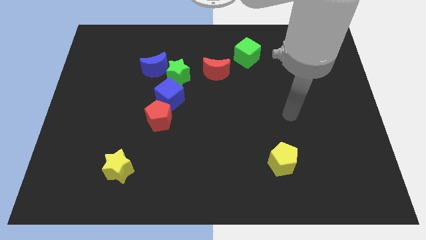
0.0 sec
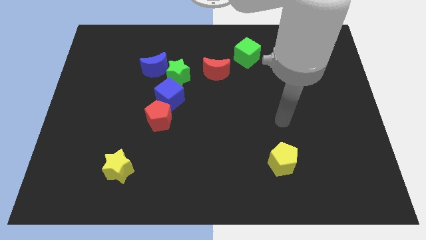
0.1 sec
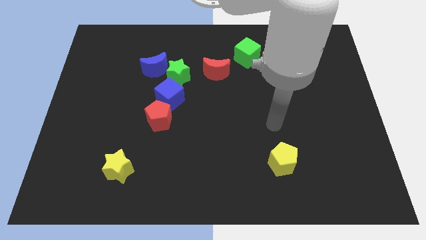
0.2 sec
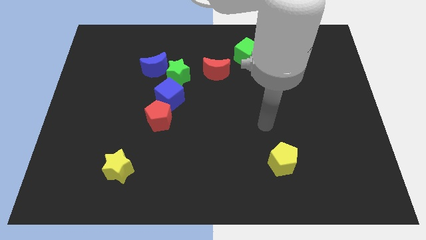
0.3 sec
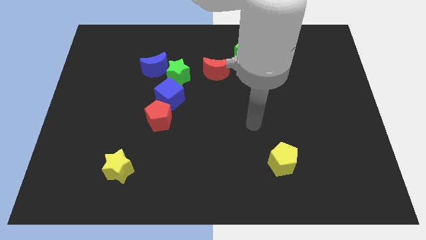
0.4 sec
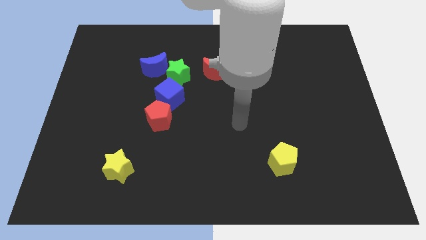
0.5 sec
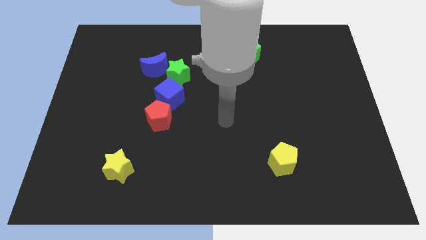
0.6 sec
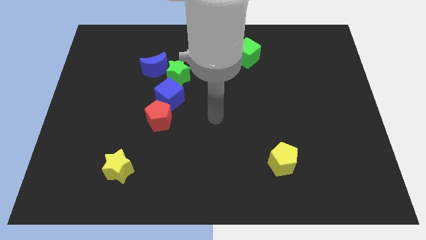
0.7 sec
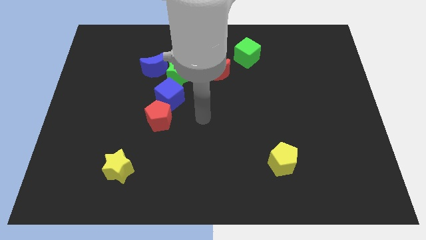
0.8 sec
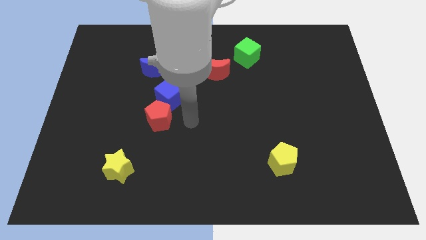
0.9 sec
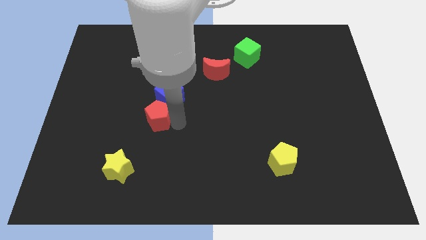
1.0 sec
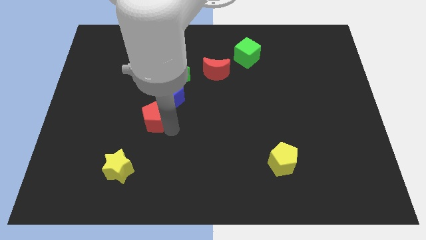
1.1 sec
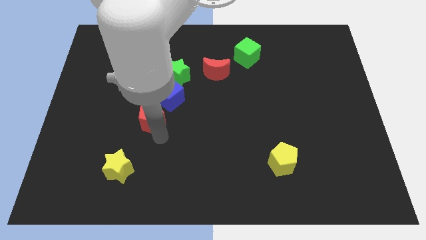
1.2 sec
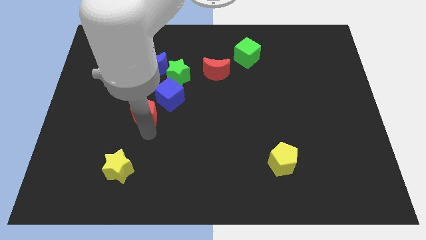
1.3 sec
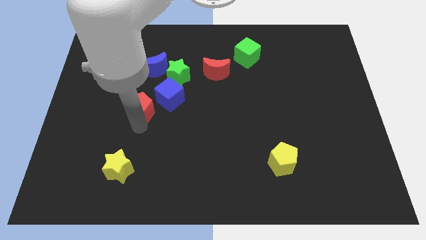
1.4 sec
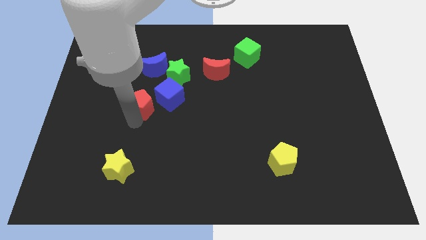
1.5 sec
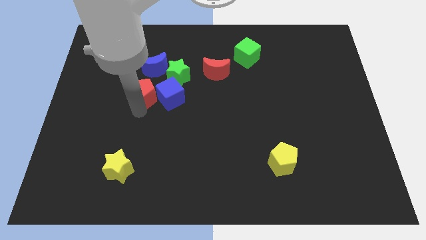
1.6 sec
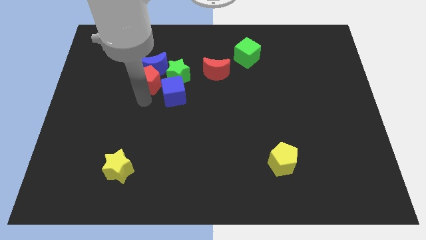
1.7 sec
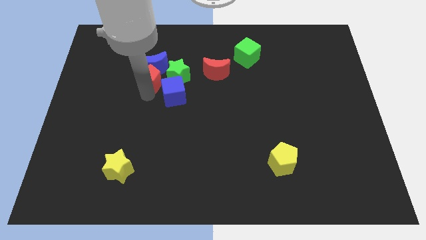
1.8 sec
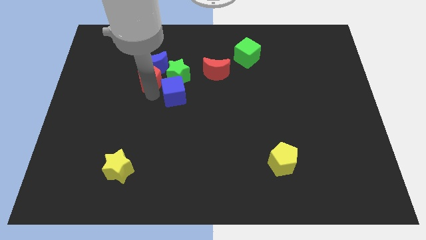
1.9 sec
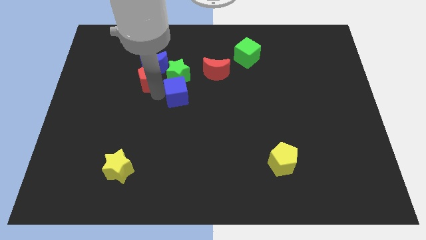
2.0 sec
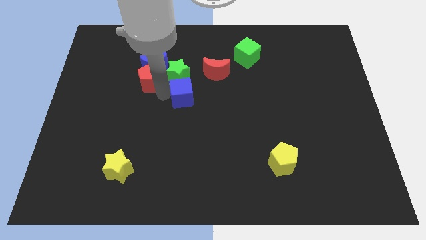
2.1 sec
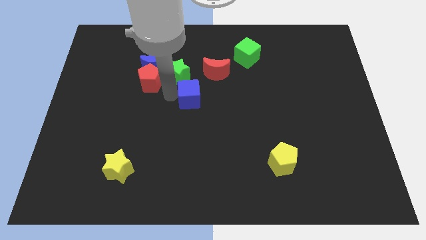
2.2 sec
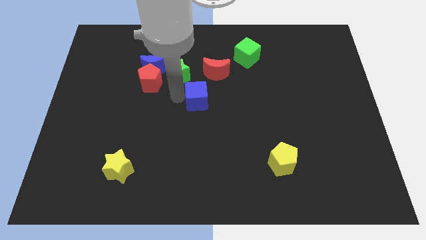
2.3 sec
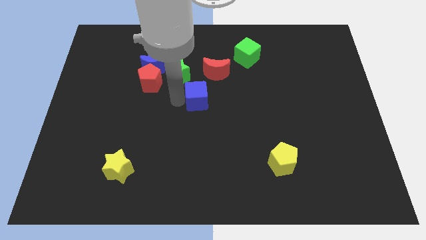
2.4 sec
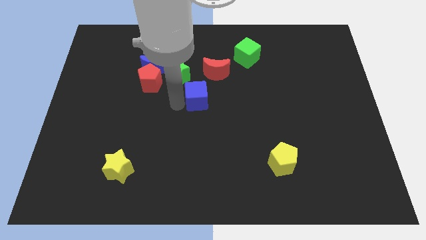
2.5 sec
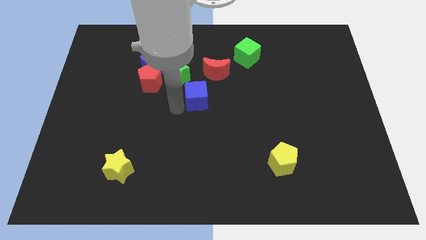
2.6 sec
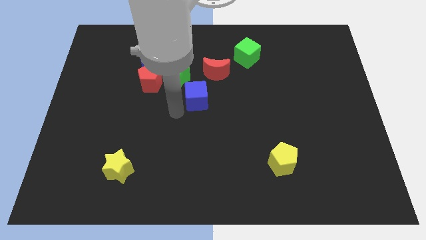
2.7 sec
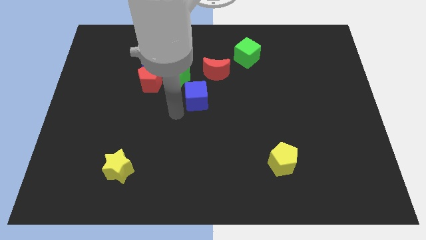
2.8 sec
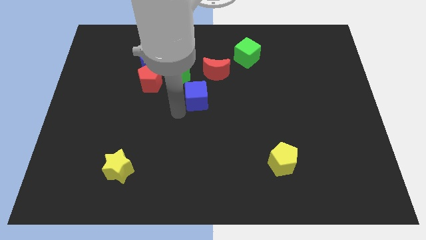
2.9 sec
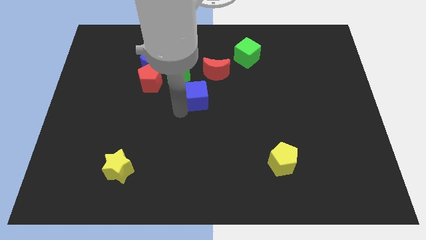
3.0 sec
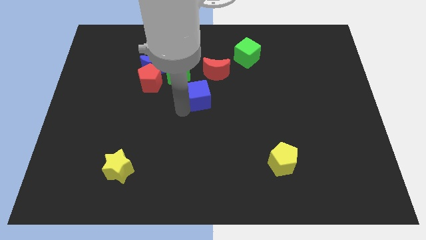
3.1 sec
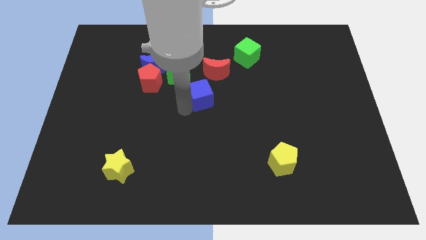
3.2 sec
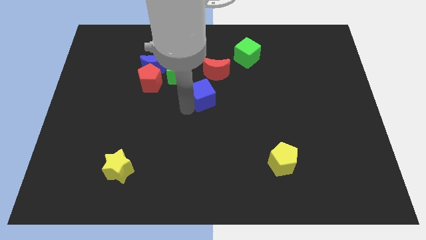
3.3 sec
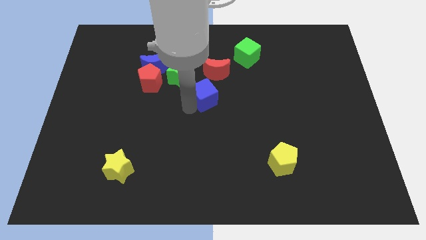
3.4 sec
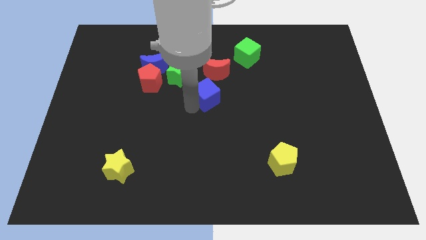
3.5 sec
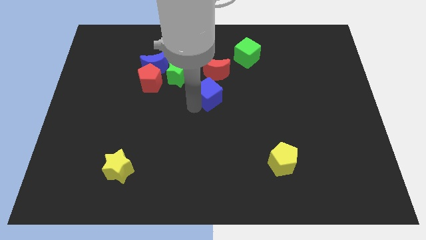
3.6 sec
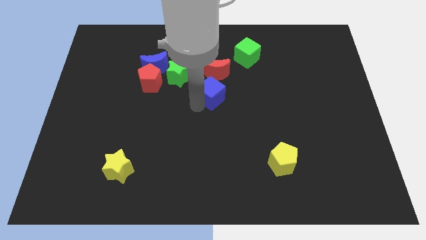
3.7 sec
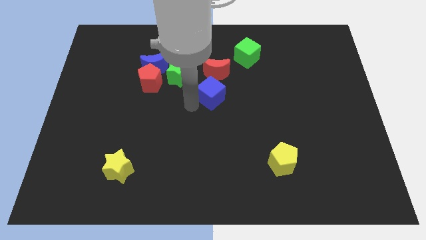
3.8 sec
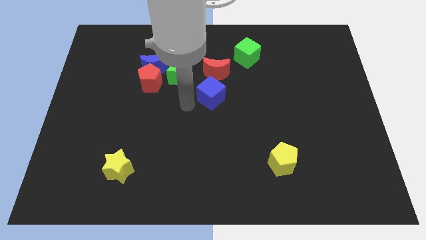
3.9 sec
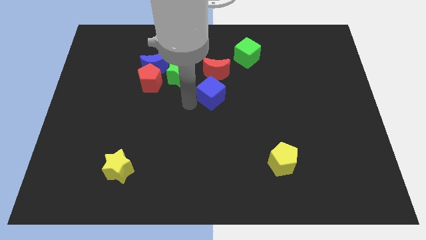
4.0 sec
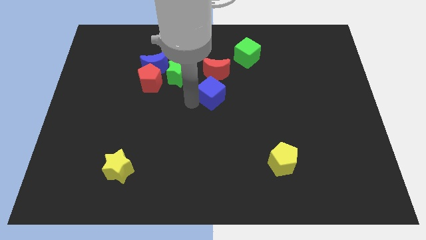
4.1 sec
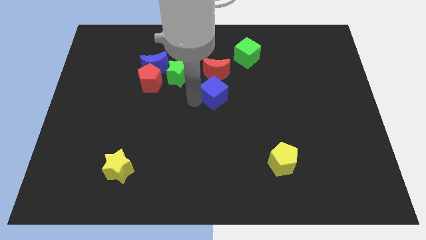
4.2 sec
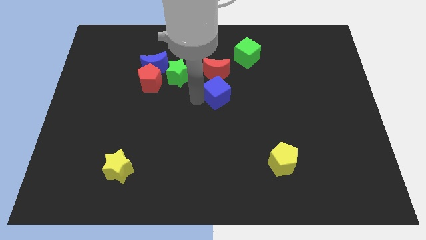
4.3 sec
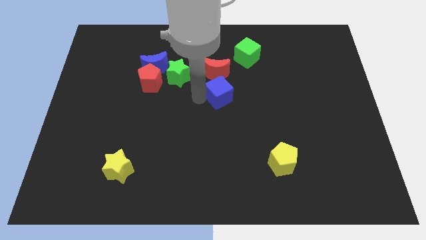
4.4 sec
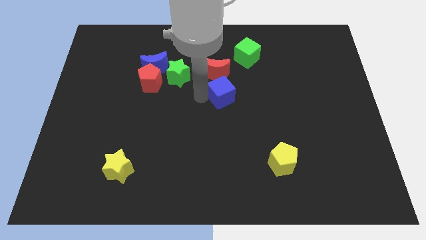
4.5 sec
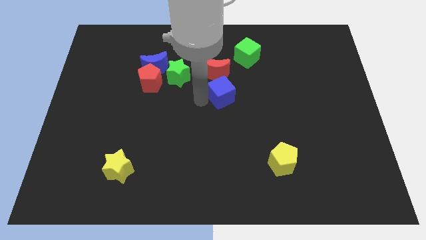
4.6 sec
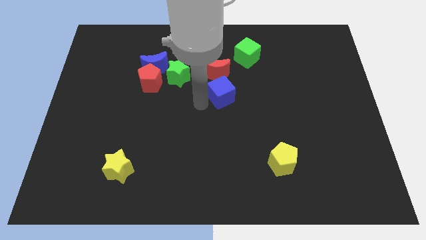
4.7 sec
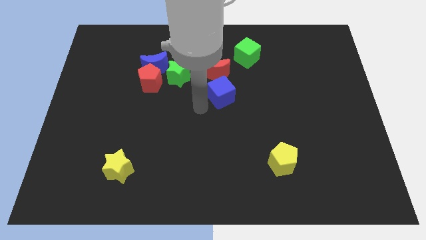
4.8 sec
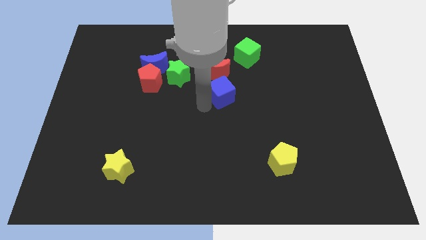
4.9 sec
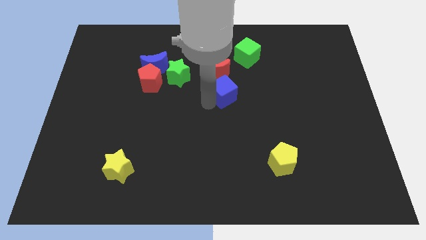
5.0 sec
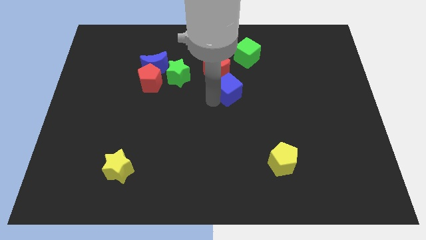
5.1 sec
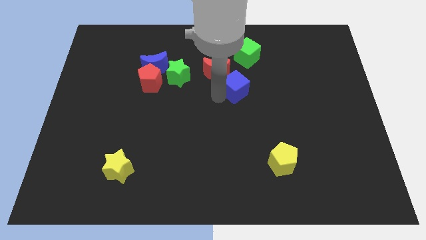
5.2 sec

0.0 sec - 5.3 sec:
put the blue cube to the bottom side of the green cube

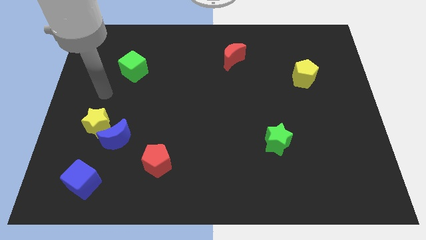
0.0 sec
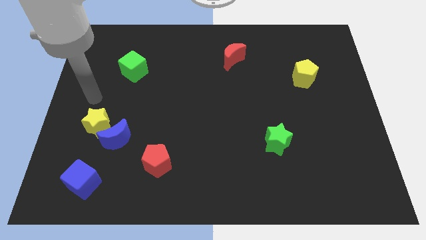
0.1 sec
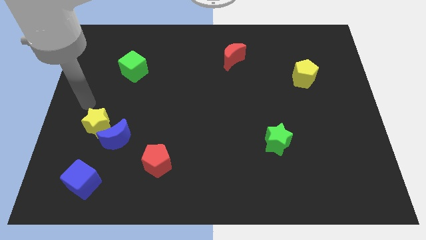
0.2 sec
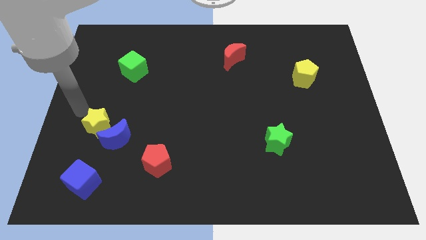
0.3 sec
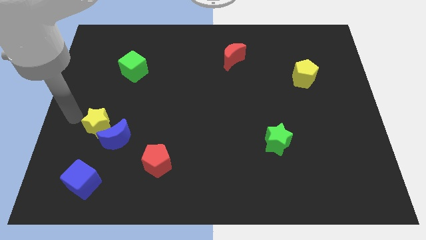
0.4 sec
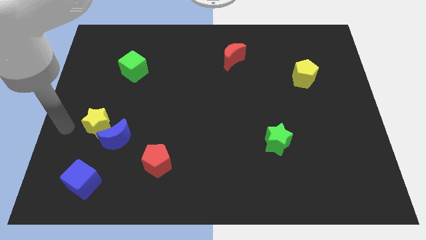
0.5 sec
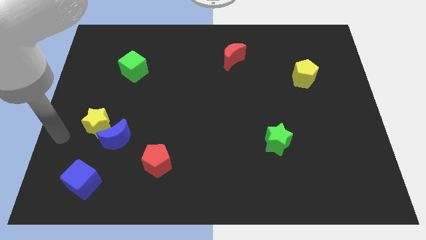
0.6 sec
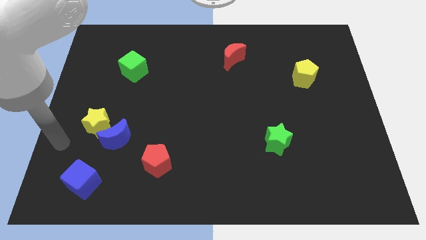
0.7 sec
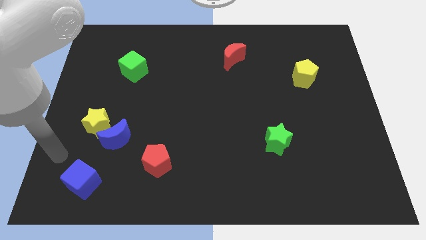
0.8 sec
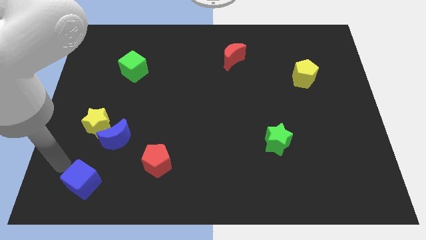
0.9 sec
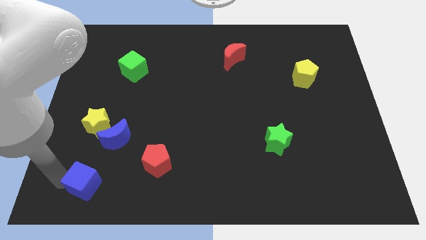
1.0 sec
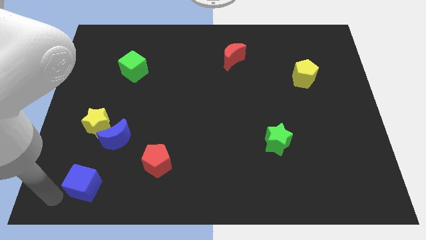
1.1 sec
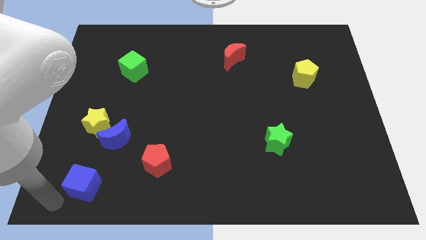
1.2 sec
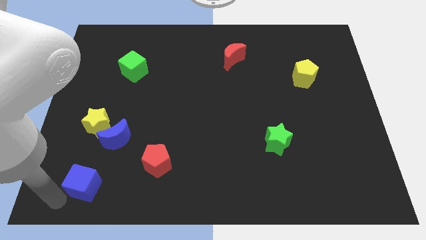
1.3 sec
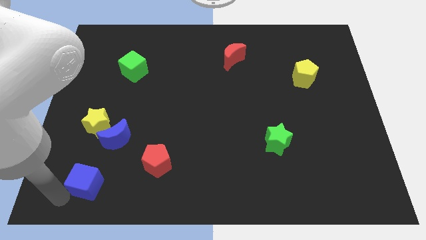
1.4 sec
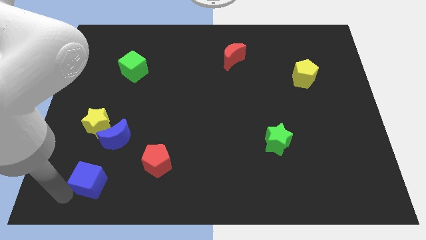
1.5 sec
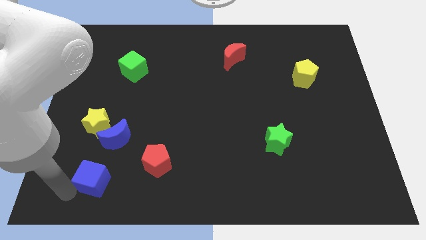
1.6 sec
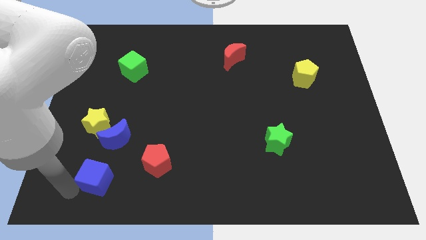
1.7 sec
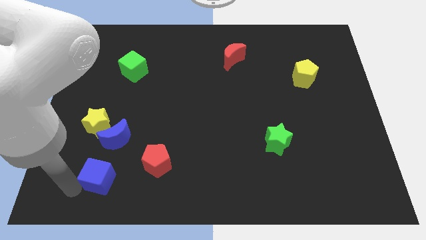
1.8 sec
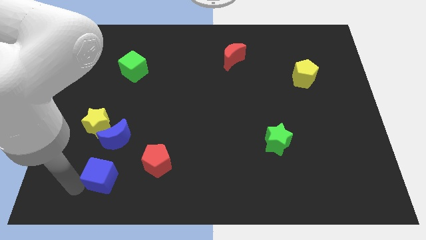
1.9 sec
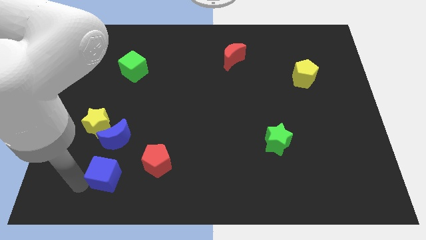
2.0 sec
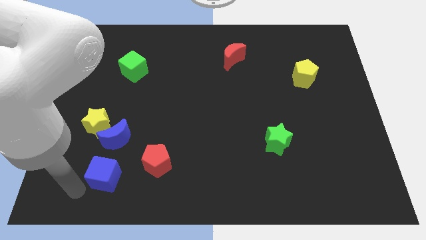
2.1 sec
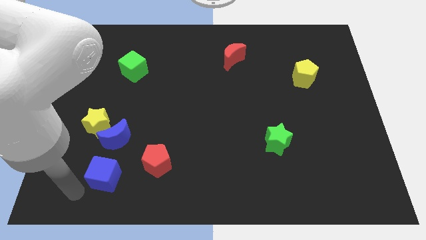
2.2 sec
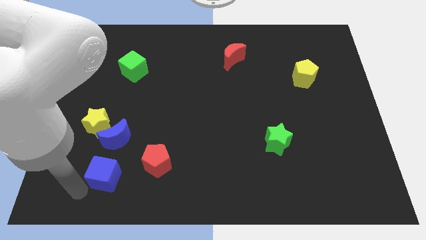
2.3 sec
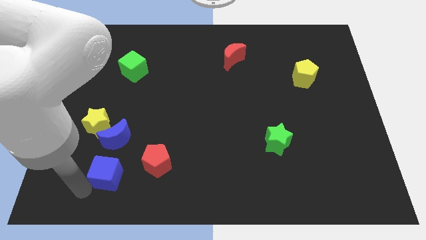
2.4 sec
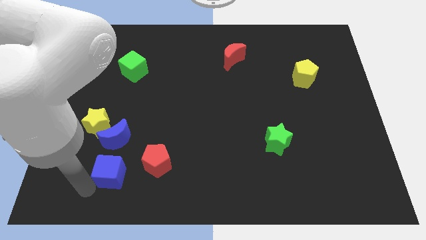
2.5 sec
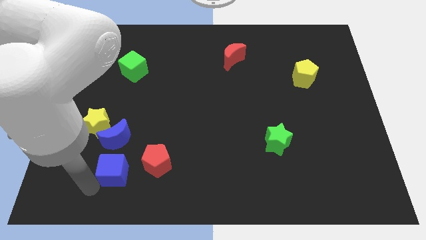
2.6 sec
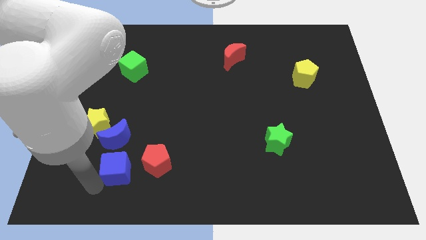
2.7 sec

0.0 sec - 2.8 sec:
push the blue cube diagonally down and to the right of the blue moon

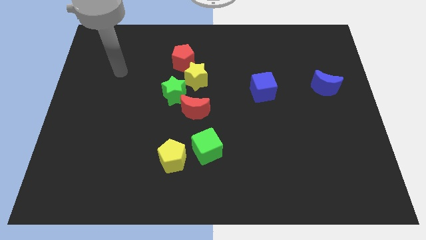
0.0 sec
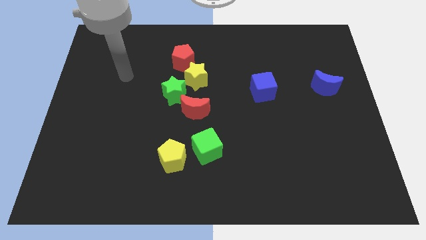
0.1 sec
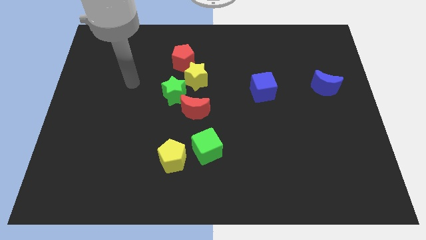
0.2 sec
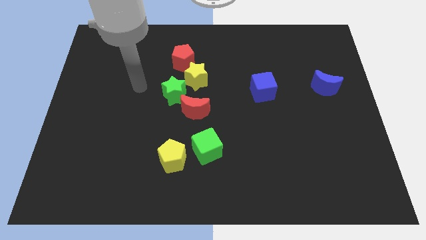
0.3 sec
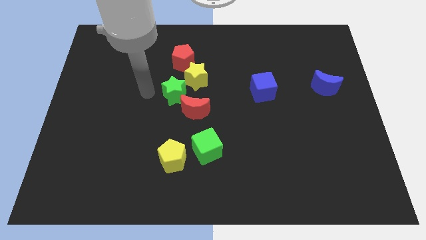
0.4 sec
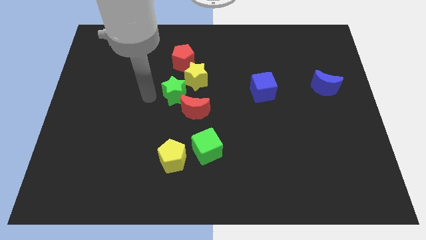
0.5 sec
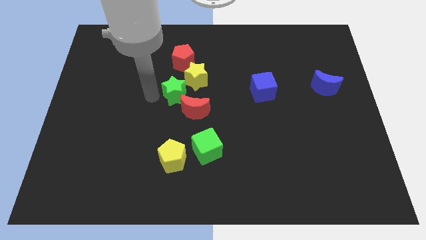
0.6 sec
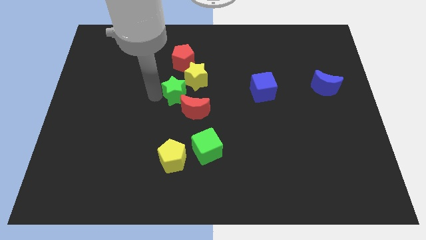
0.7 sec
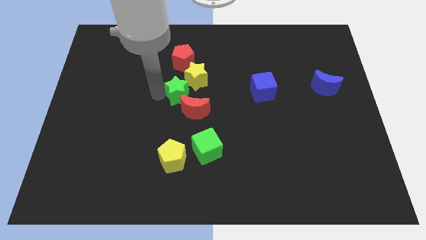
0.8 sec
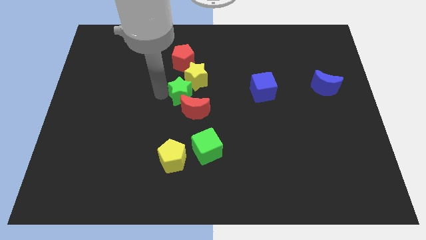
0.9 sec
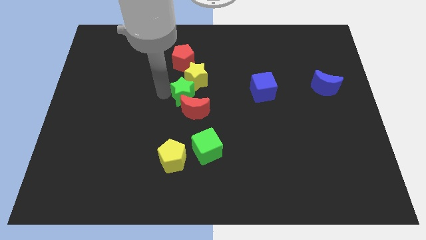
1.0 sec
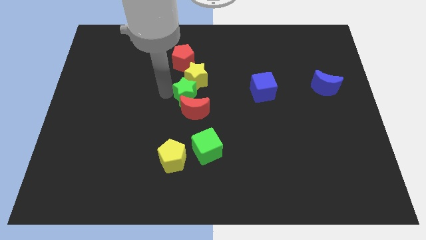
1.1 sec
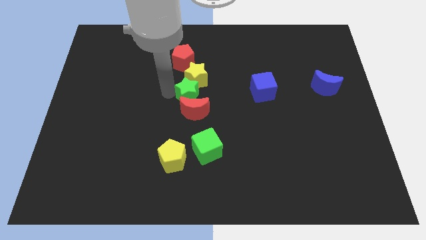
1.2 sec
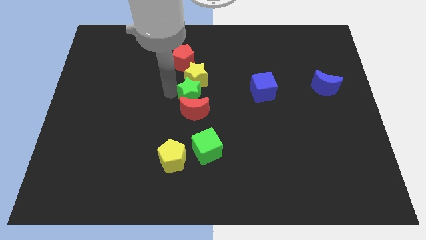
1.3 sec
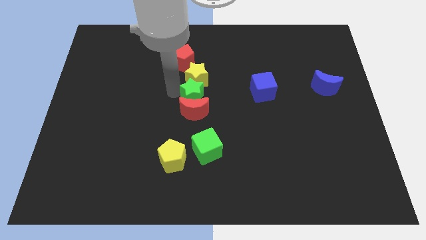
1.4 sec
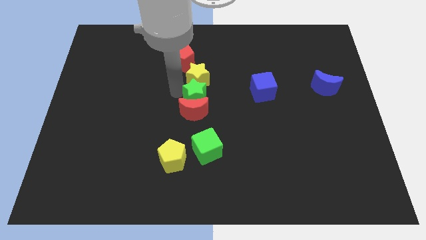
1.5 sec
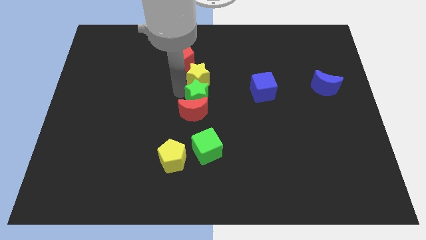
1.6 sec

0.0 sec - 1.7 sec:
slide the green star just left of the blue cube
